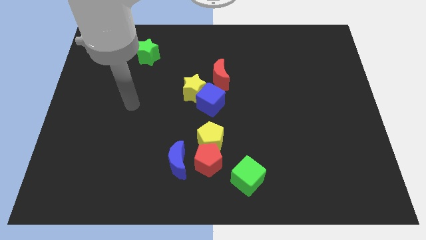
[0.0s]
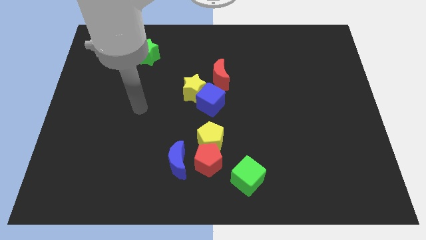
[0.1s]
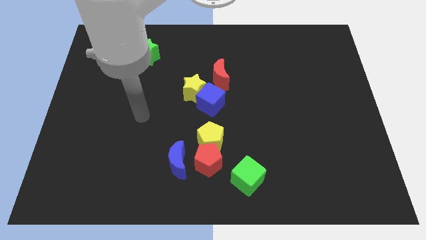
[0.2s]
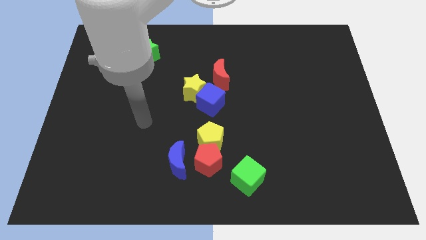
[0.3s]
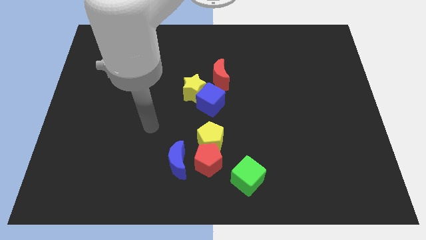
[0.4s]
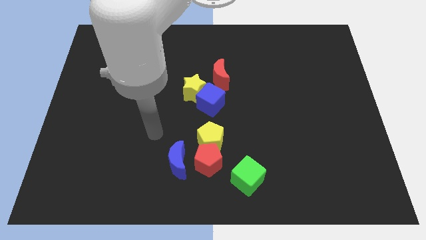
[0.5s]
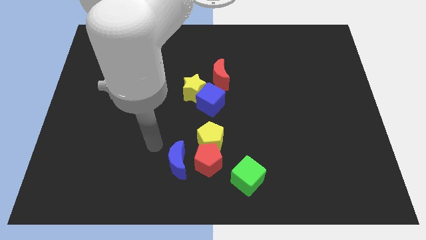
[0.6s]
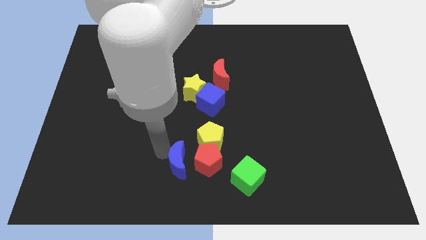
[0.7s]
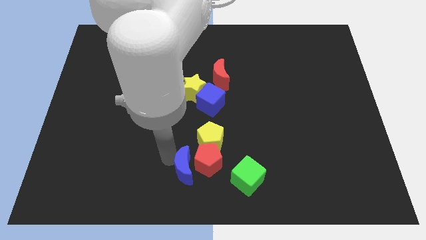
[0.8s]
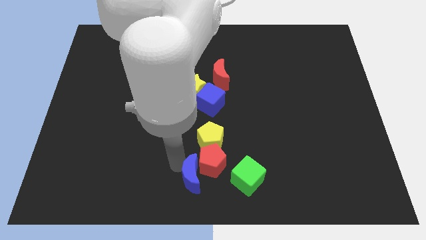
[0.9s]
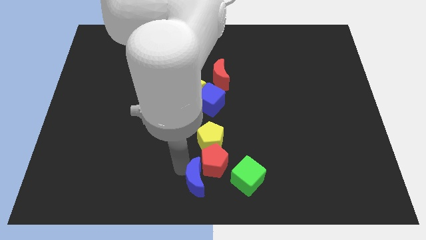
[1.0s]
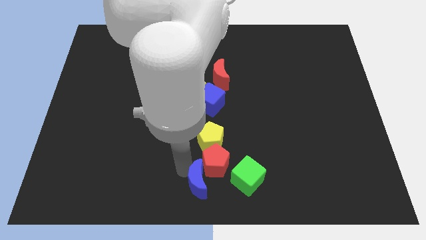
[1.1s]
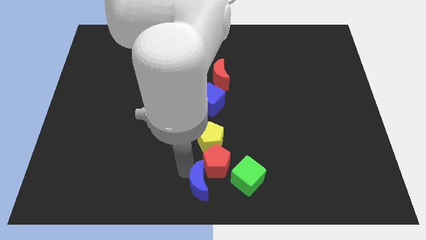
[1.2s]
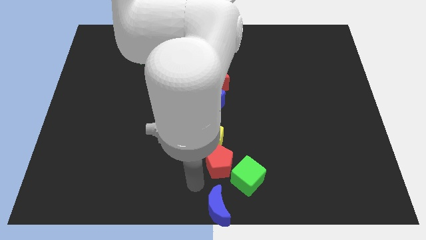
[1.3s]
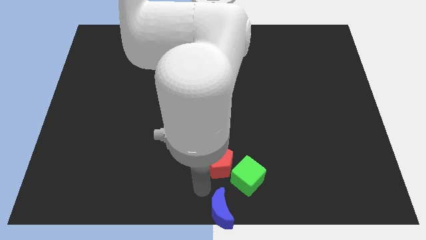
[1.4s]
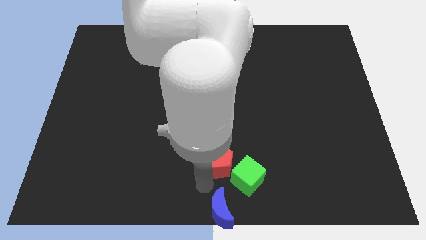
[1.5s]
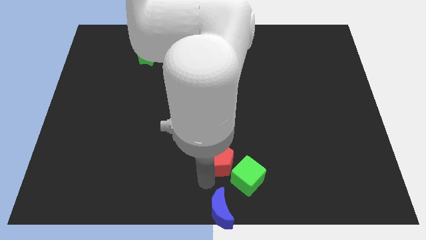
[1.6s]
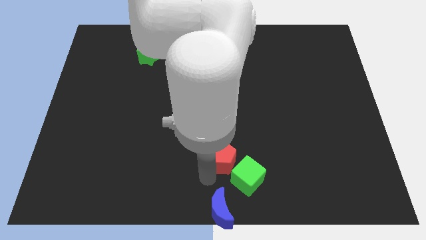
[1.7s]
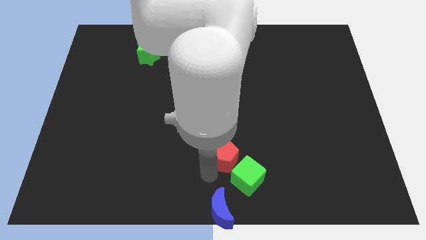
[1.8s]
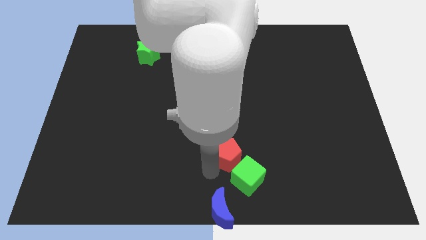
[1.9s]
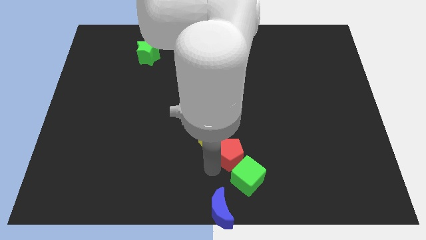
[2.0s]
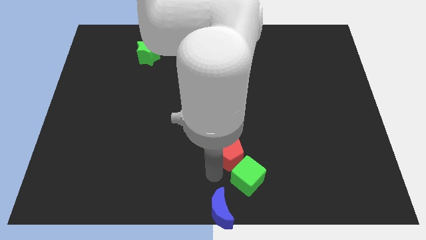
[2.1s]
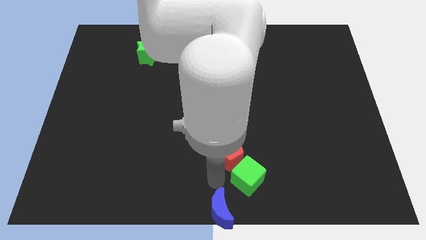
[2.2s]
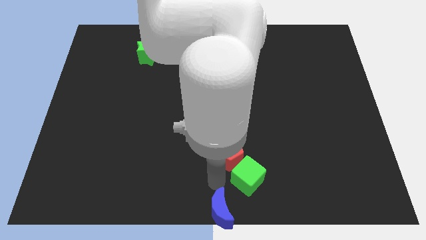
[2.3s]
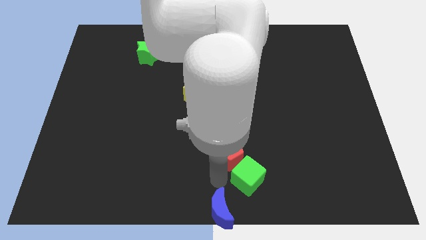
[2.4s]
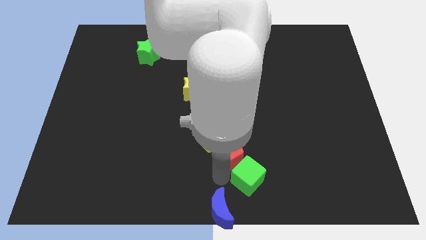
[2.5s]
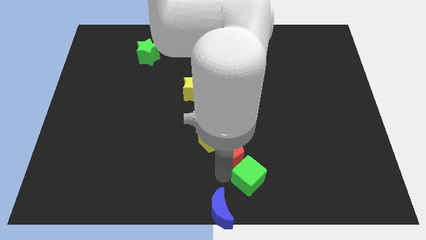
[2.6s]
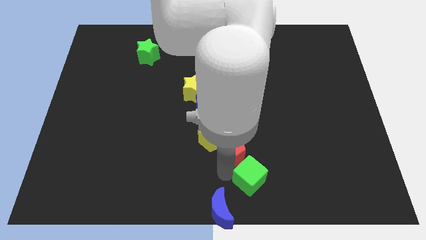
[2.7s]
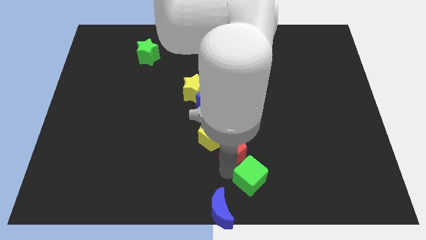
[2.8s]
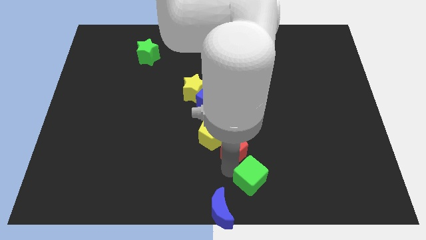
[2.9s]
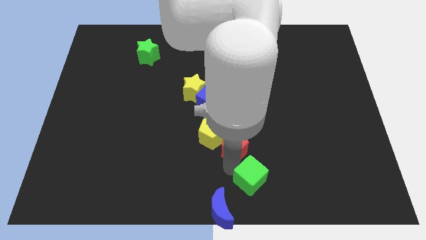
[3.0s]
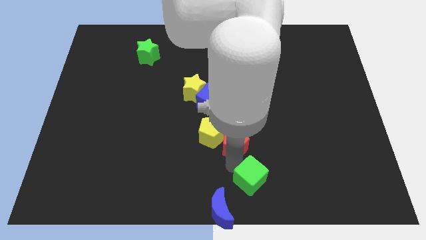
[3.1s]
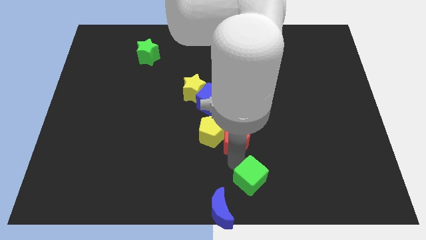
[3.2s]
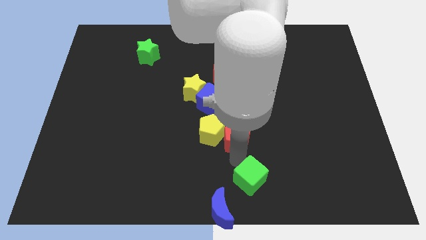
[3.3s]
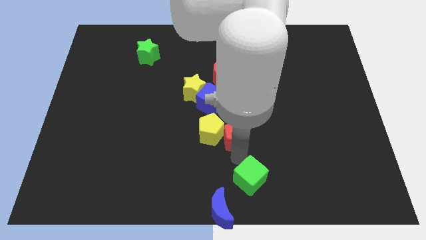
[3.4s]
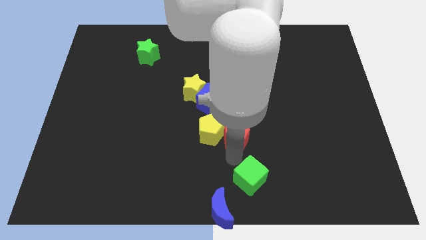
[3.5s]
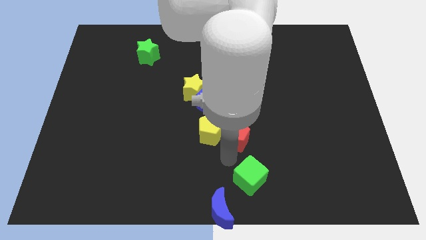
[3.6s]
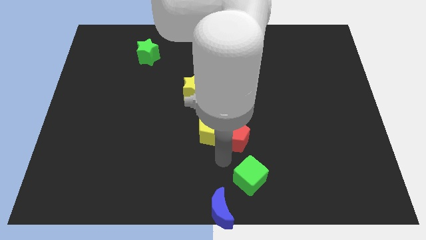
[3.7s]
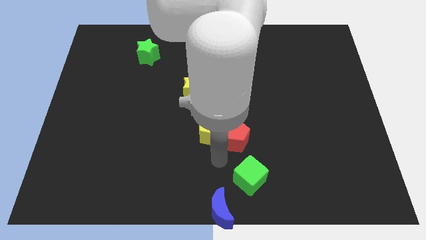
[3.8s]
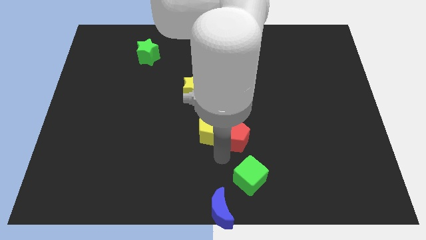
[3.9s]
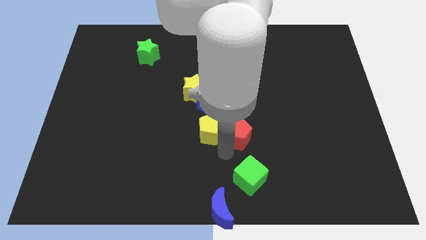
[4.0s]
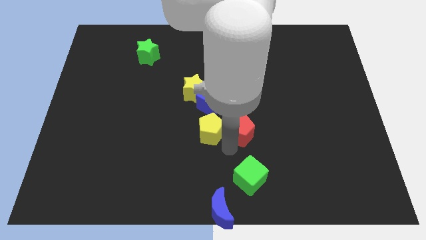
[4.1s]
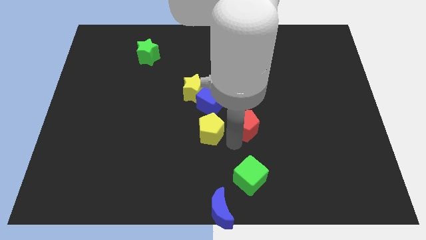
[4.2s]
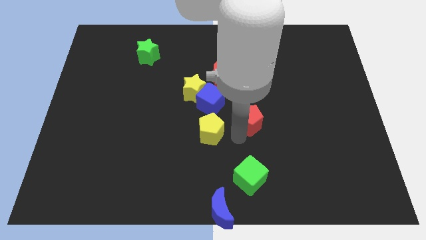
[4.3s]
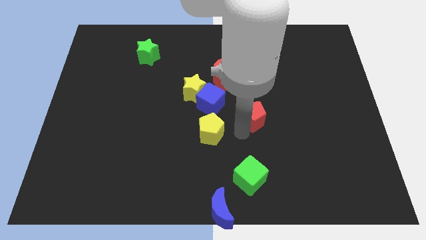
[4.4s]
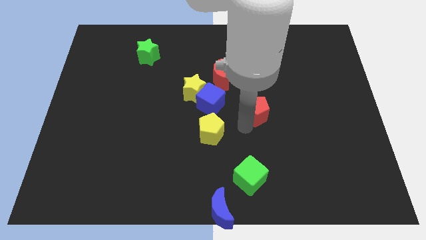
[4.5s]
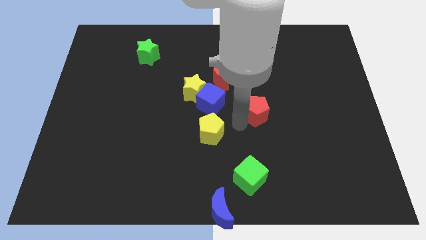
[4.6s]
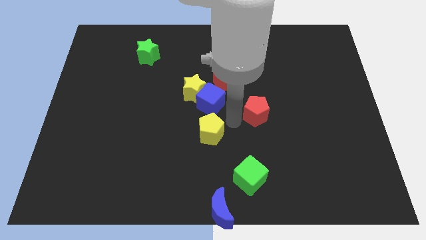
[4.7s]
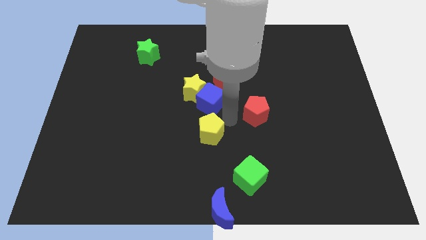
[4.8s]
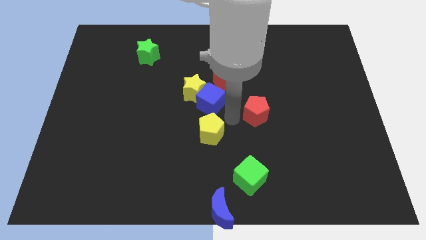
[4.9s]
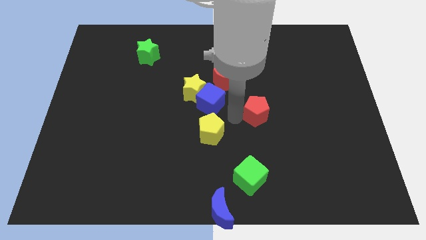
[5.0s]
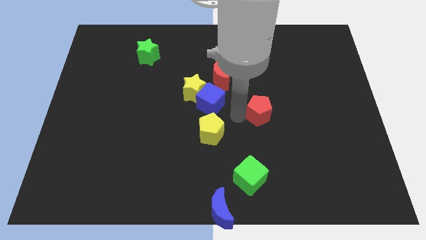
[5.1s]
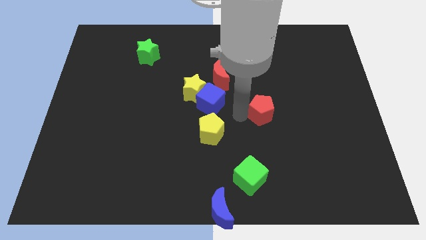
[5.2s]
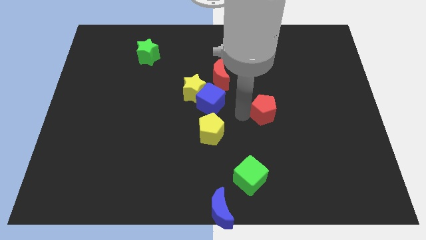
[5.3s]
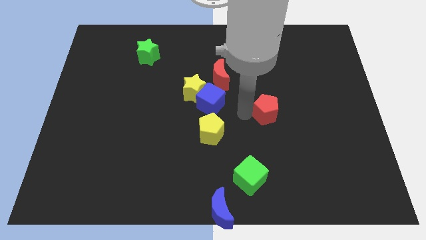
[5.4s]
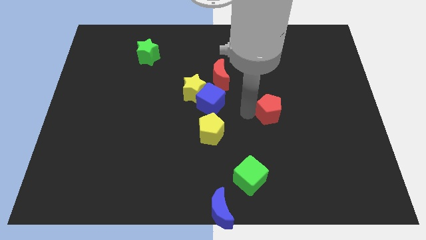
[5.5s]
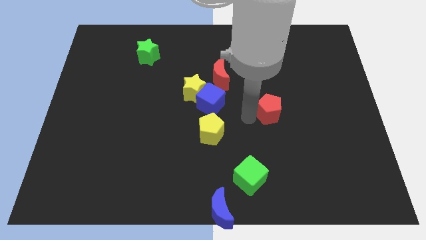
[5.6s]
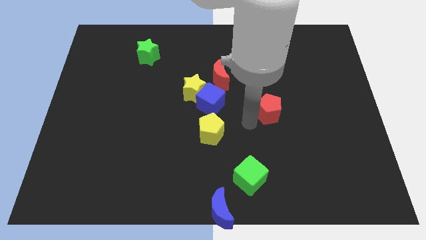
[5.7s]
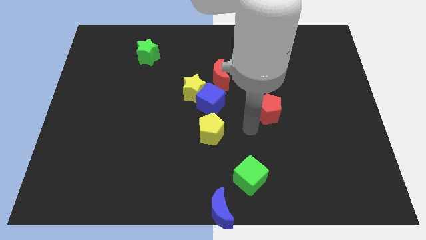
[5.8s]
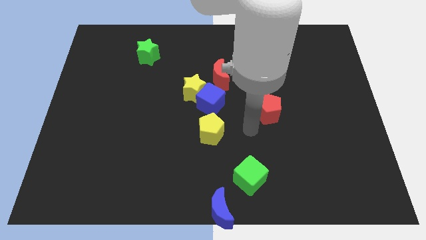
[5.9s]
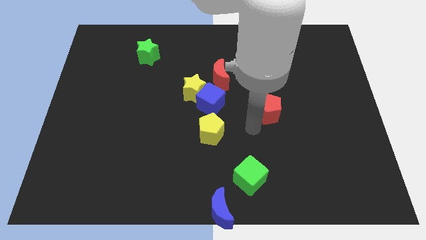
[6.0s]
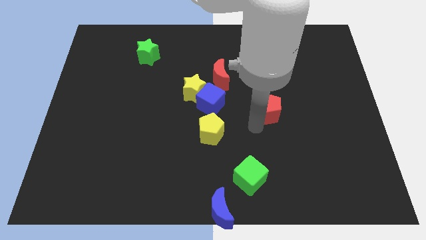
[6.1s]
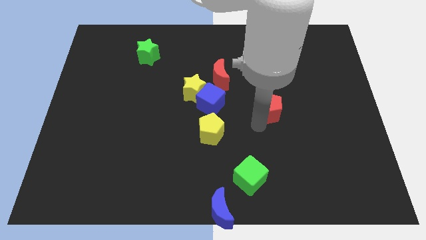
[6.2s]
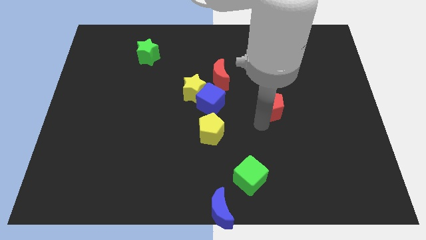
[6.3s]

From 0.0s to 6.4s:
slide the red pentagon up and right

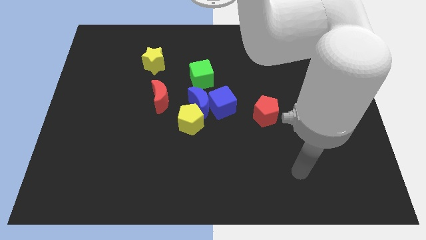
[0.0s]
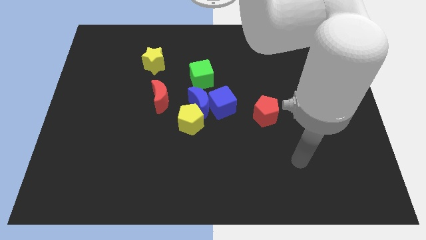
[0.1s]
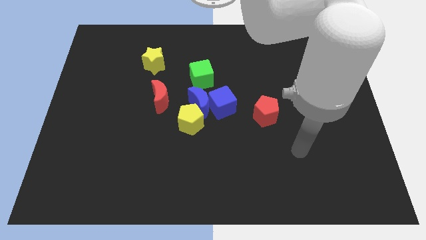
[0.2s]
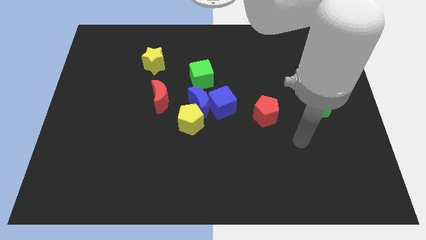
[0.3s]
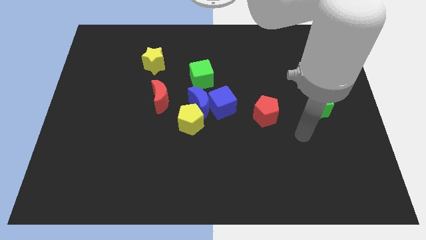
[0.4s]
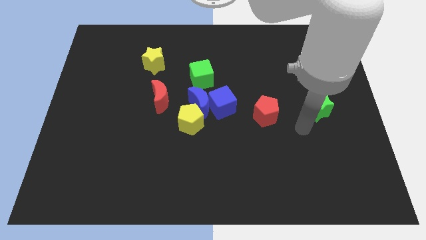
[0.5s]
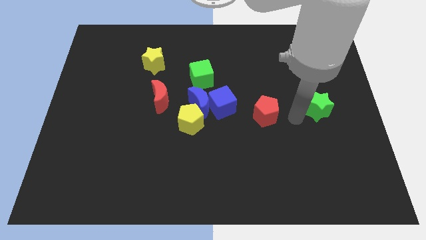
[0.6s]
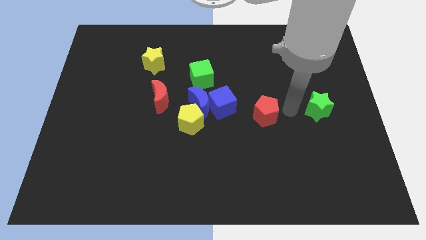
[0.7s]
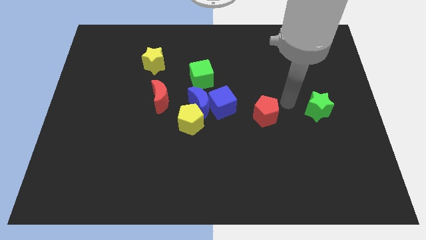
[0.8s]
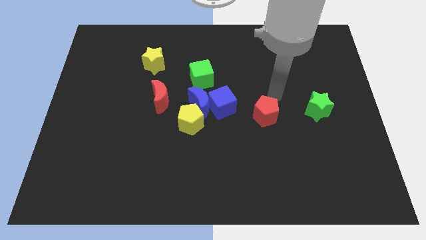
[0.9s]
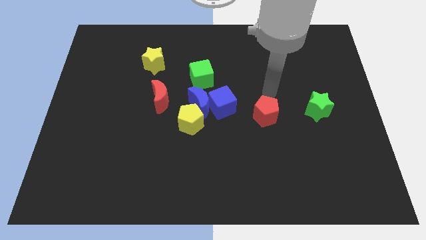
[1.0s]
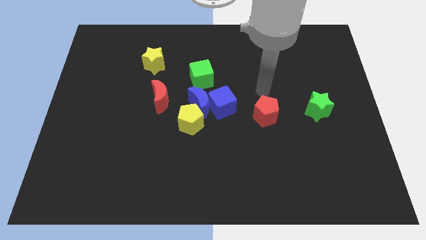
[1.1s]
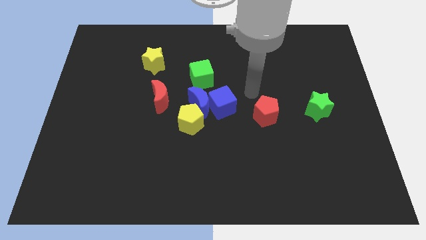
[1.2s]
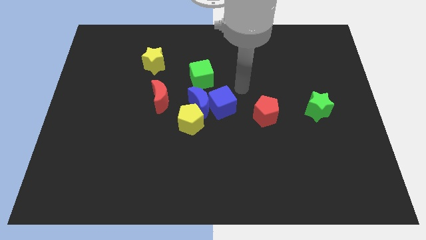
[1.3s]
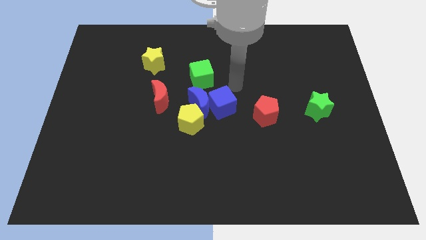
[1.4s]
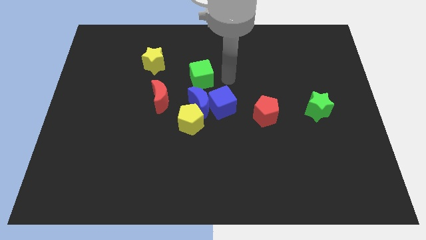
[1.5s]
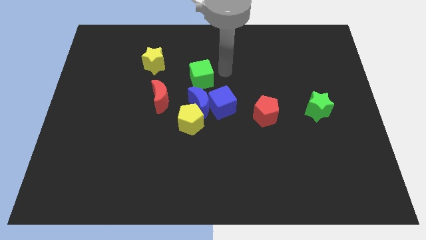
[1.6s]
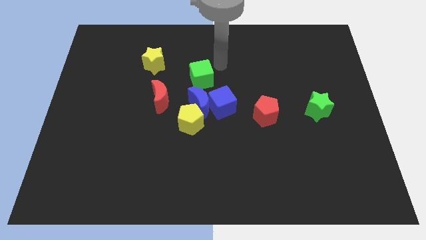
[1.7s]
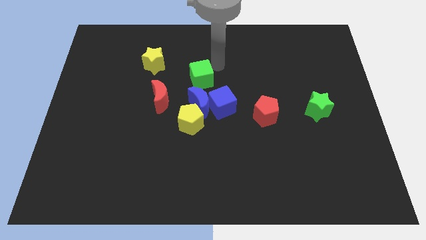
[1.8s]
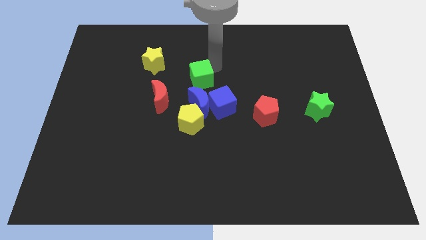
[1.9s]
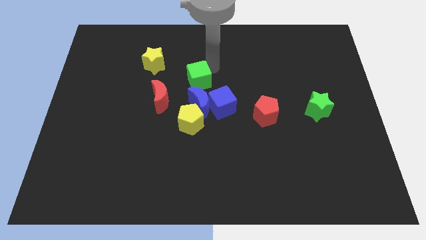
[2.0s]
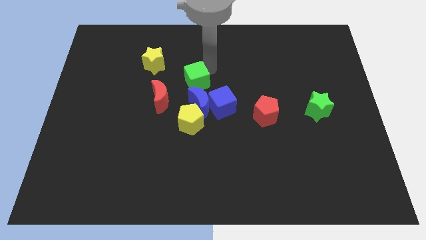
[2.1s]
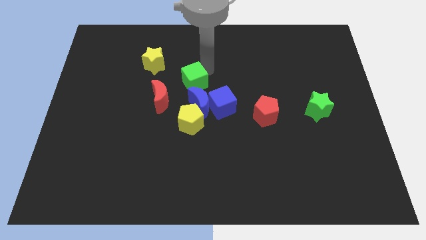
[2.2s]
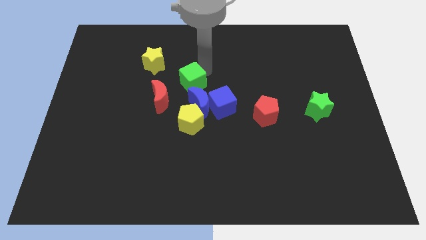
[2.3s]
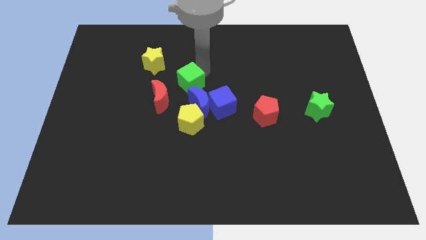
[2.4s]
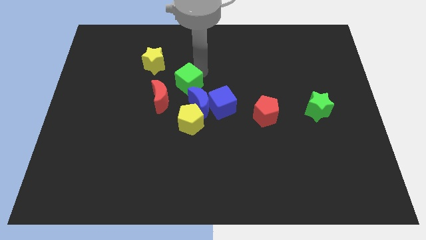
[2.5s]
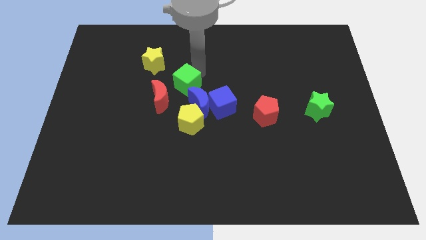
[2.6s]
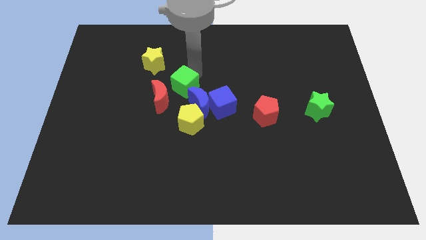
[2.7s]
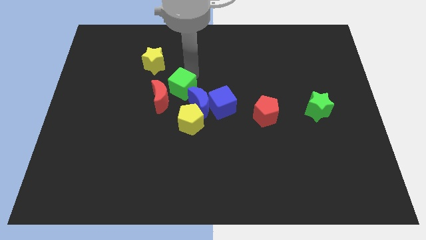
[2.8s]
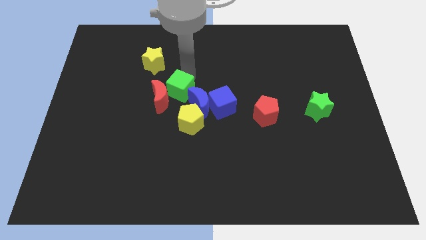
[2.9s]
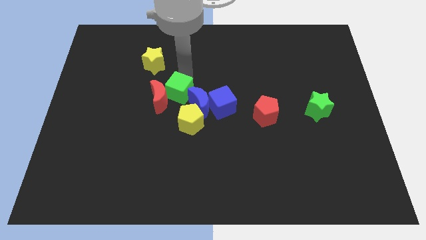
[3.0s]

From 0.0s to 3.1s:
push the green cube down and to the left a little bit
